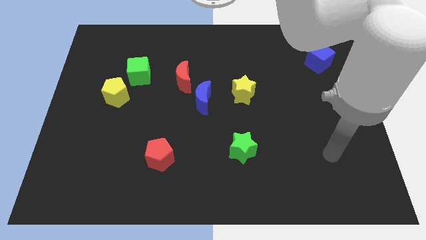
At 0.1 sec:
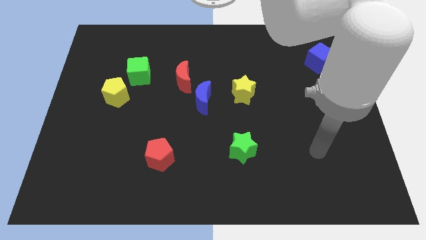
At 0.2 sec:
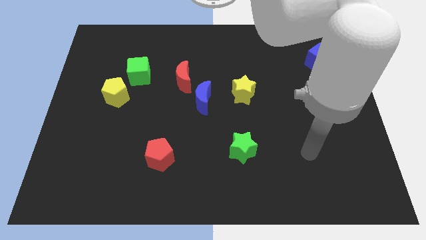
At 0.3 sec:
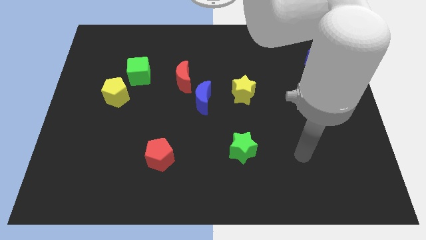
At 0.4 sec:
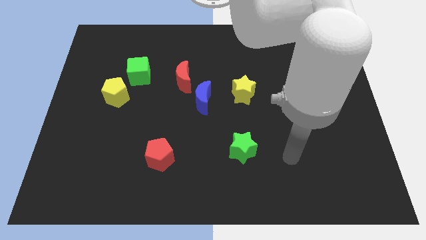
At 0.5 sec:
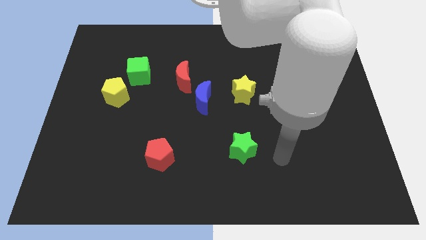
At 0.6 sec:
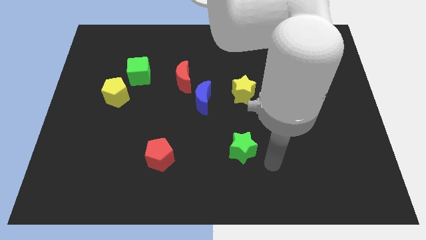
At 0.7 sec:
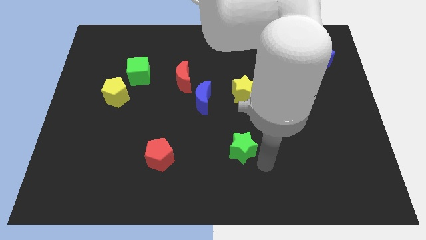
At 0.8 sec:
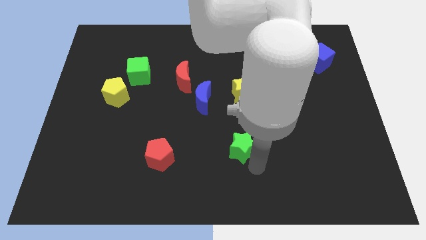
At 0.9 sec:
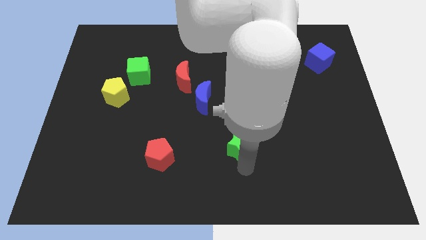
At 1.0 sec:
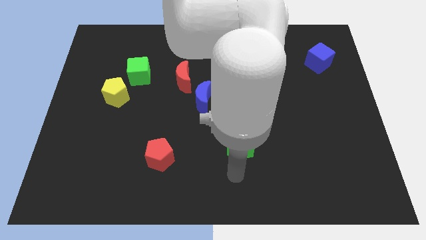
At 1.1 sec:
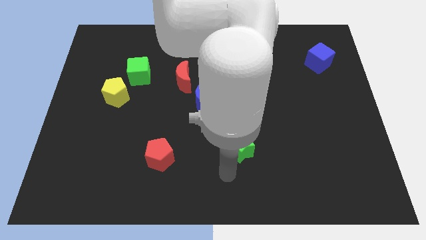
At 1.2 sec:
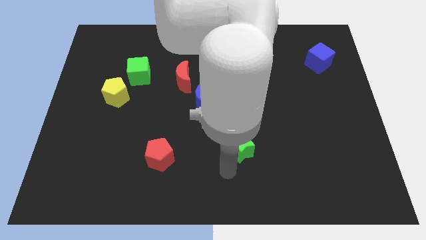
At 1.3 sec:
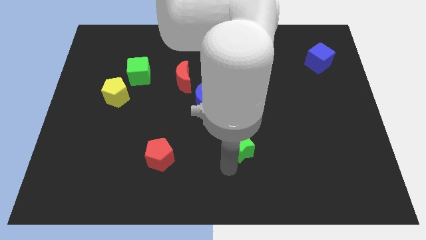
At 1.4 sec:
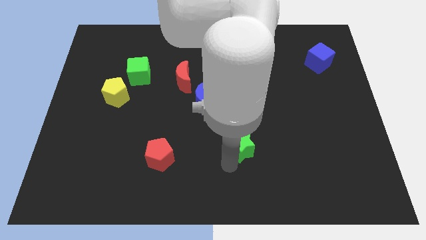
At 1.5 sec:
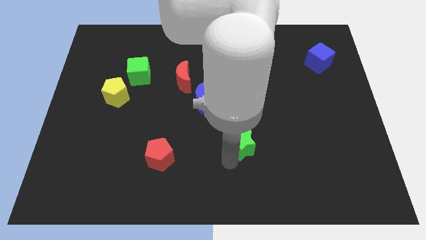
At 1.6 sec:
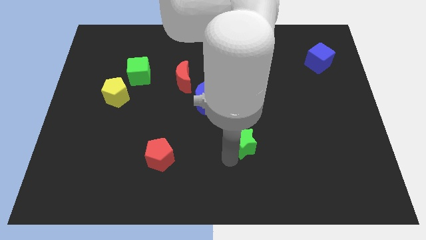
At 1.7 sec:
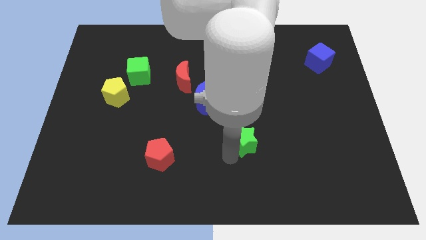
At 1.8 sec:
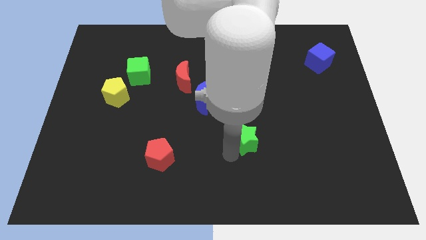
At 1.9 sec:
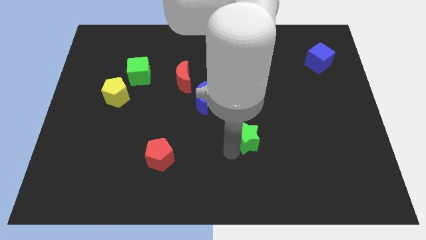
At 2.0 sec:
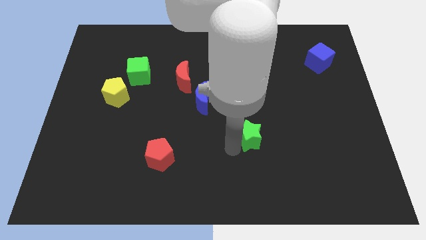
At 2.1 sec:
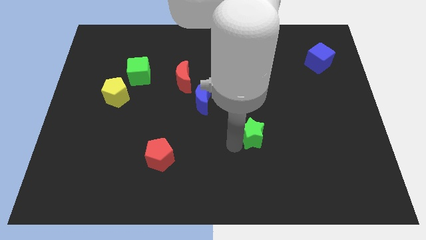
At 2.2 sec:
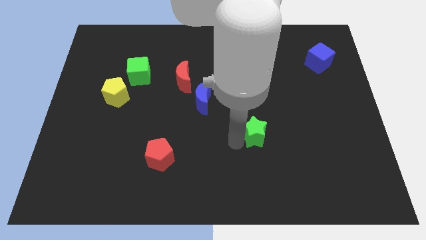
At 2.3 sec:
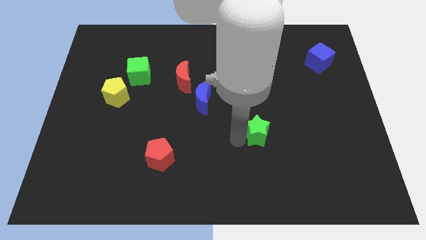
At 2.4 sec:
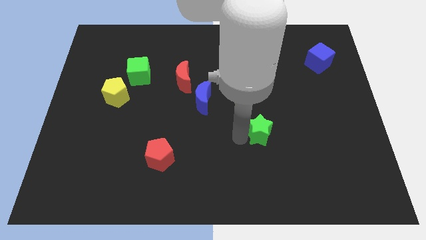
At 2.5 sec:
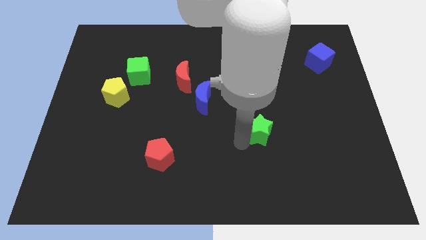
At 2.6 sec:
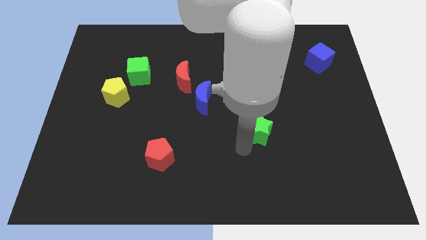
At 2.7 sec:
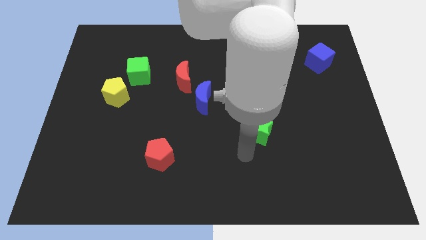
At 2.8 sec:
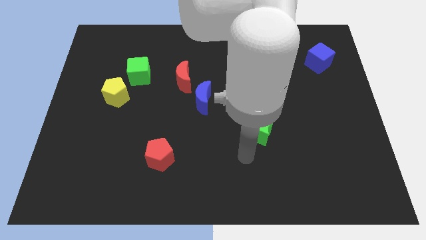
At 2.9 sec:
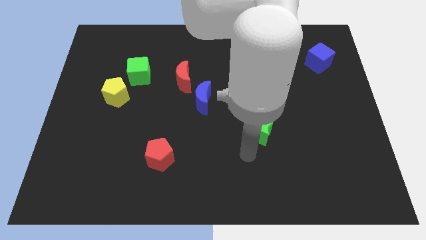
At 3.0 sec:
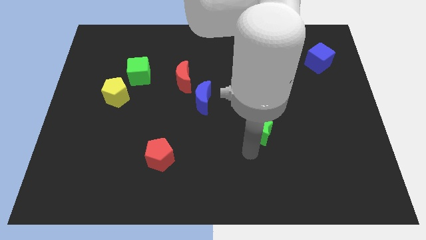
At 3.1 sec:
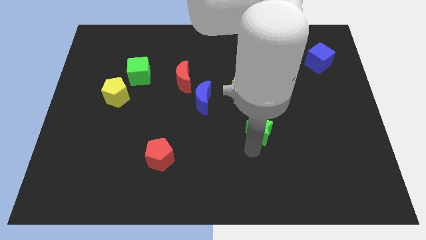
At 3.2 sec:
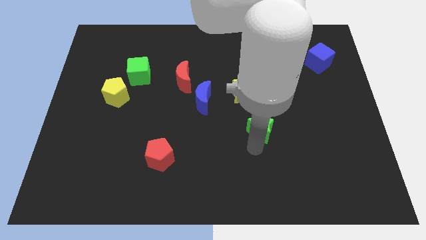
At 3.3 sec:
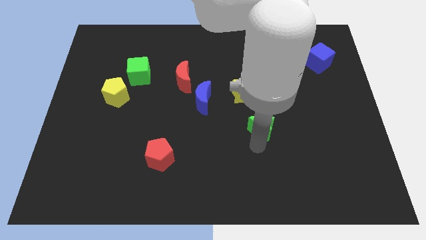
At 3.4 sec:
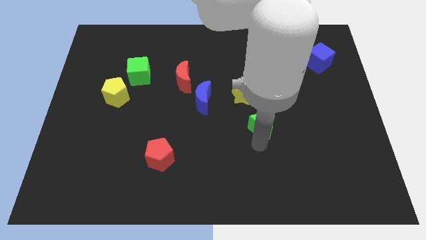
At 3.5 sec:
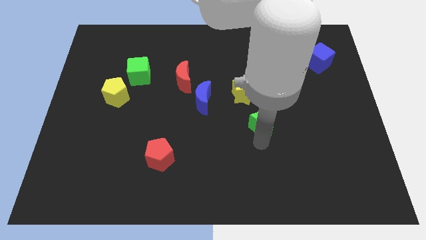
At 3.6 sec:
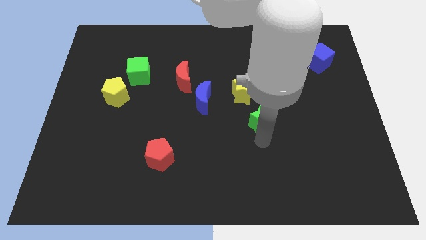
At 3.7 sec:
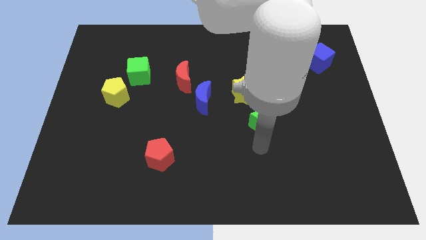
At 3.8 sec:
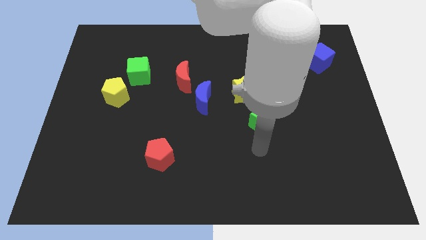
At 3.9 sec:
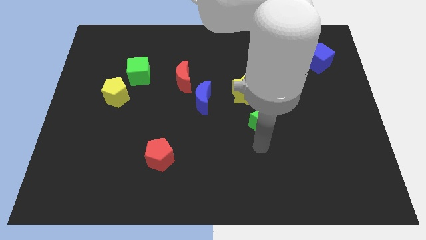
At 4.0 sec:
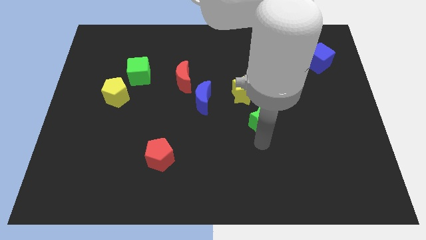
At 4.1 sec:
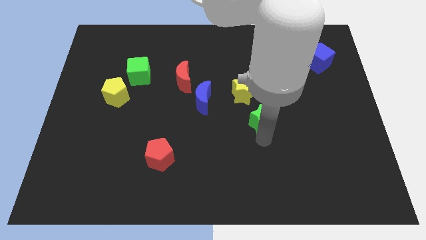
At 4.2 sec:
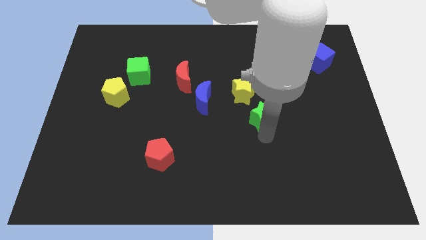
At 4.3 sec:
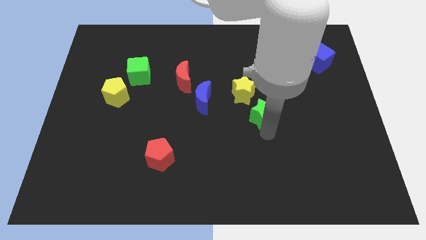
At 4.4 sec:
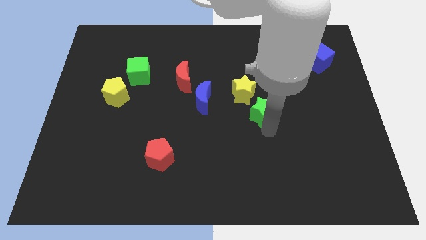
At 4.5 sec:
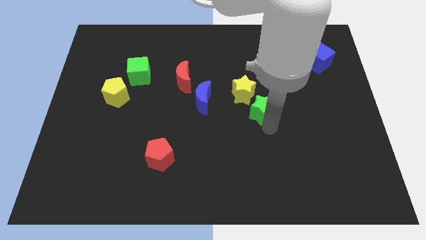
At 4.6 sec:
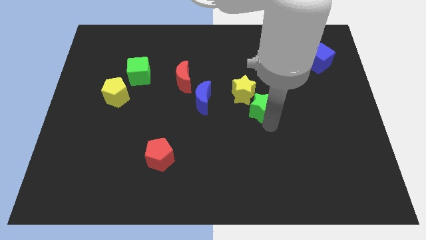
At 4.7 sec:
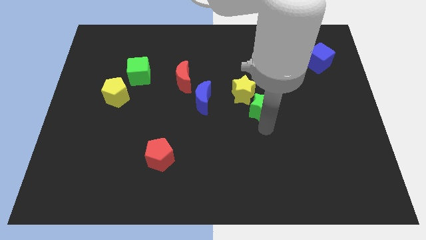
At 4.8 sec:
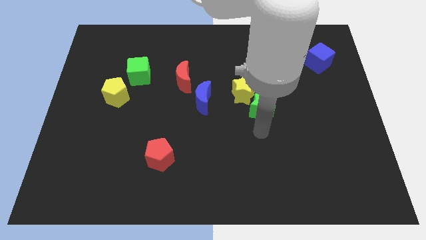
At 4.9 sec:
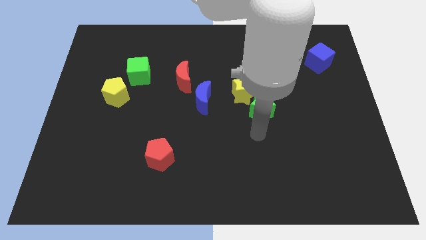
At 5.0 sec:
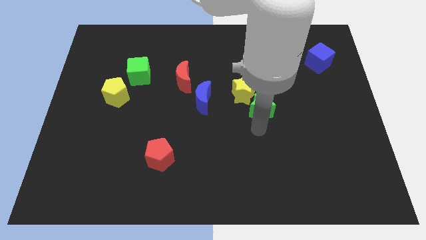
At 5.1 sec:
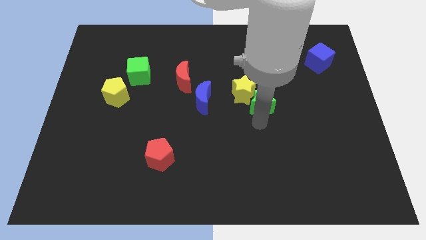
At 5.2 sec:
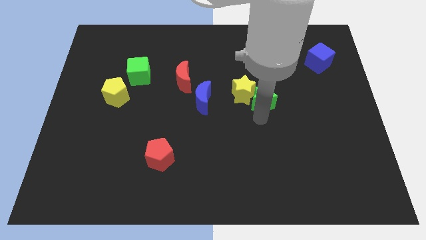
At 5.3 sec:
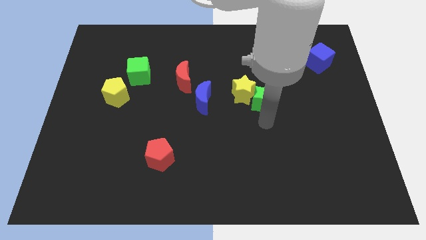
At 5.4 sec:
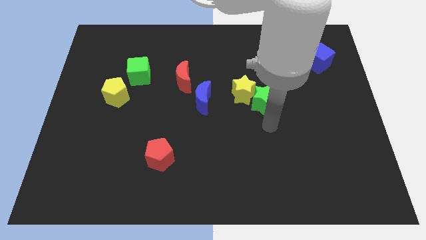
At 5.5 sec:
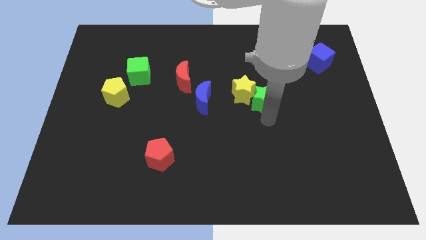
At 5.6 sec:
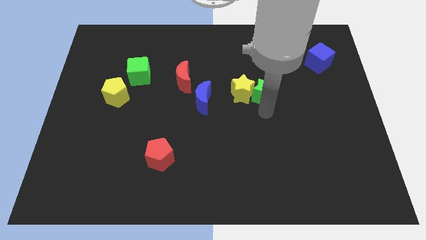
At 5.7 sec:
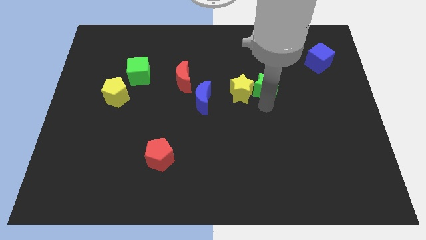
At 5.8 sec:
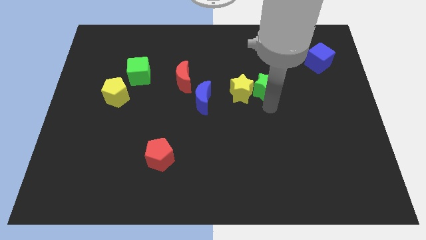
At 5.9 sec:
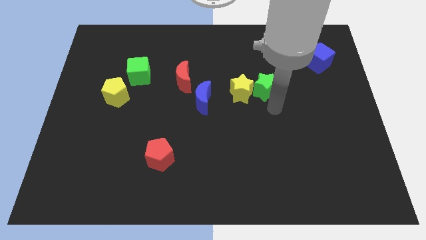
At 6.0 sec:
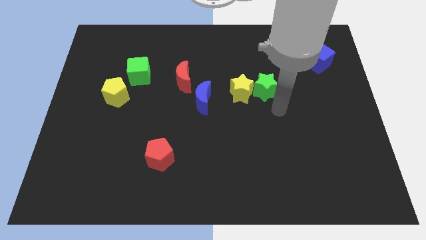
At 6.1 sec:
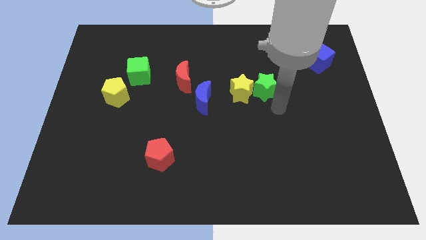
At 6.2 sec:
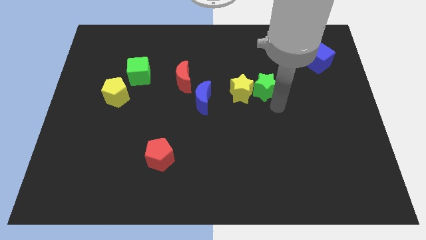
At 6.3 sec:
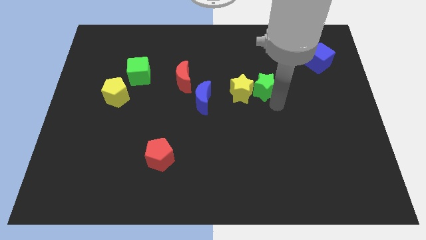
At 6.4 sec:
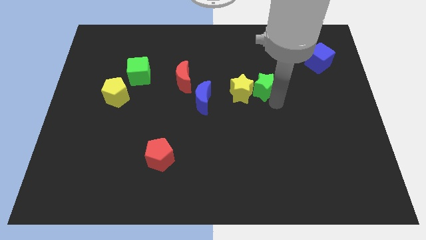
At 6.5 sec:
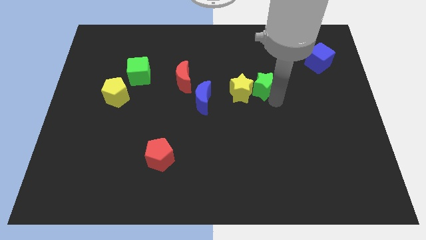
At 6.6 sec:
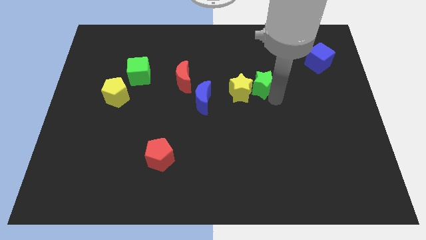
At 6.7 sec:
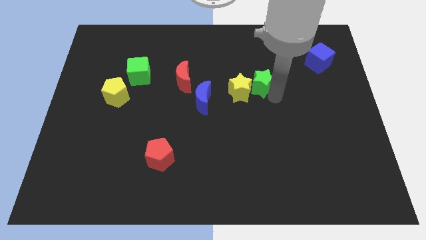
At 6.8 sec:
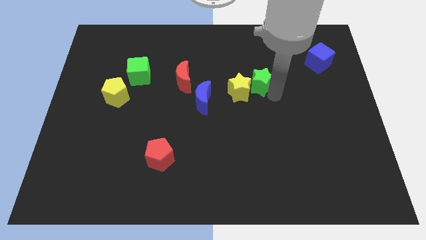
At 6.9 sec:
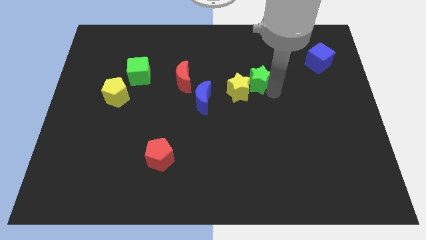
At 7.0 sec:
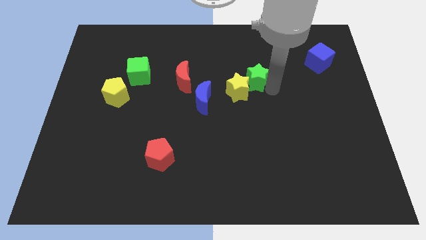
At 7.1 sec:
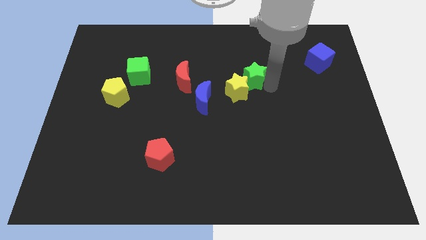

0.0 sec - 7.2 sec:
push the green star to the top side of the yellow star
